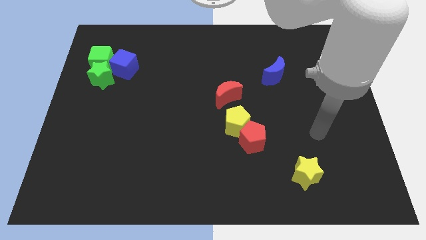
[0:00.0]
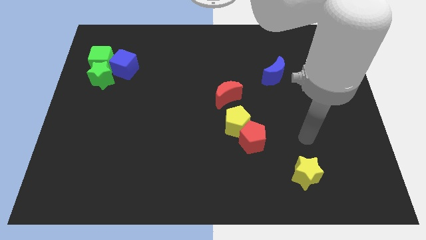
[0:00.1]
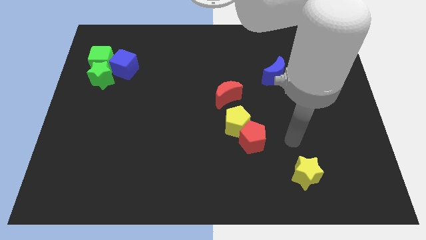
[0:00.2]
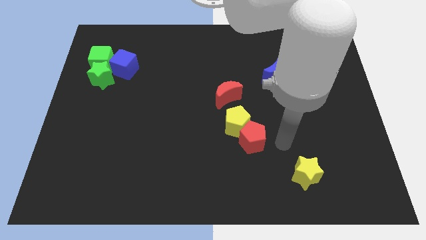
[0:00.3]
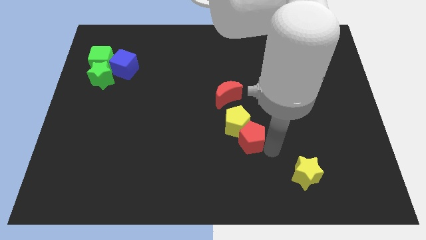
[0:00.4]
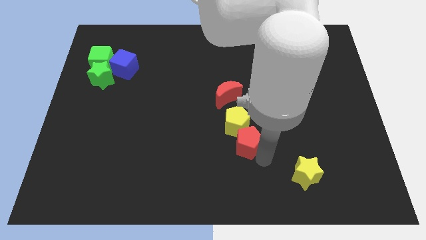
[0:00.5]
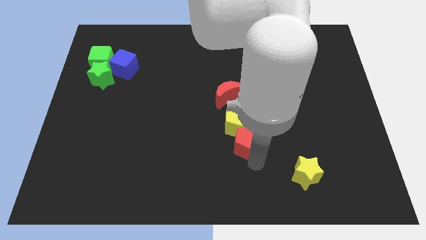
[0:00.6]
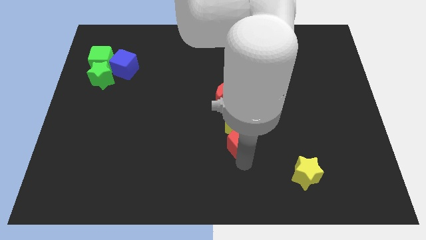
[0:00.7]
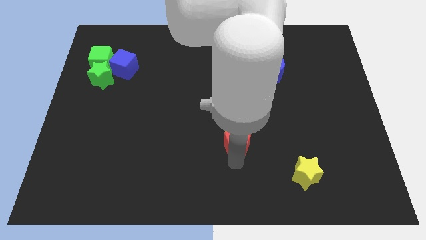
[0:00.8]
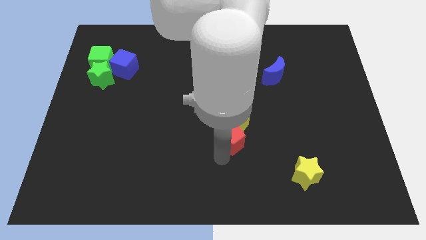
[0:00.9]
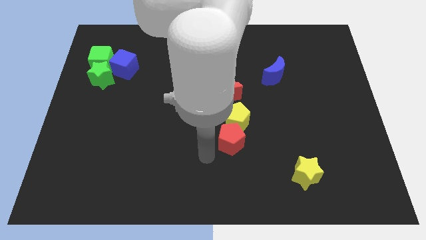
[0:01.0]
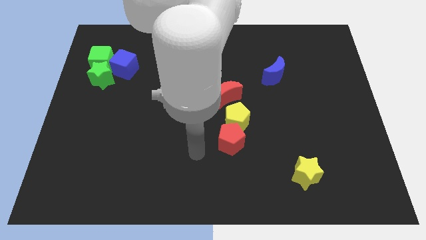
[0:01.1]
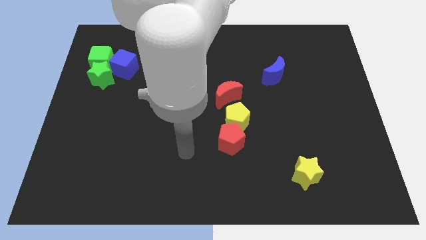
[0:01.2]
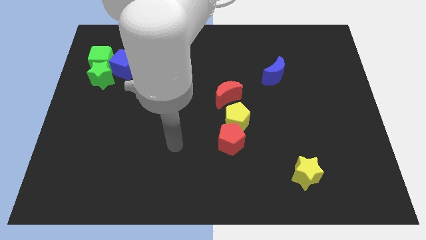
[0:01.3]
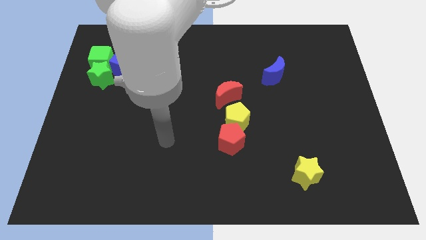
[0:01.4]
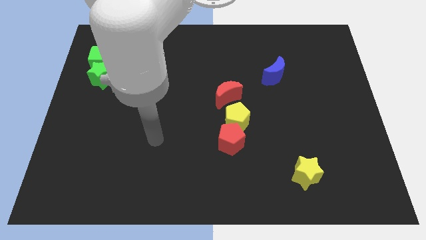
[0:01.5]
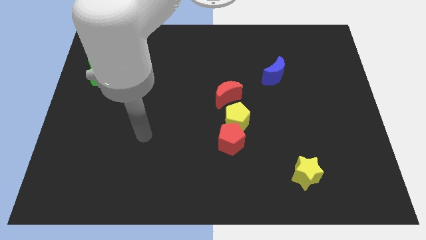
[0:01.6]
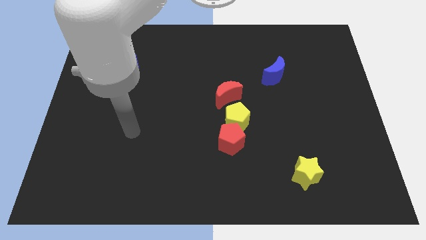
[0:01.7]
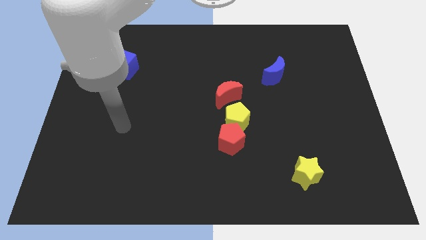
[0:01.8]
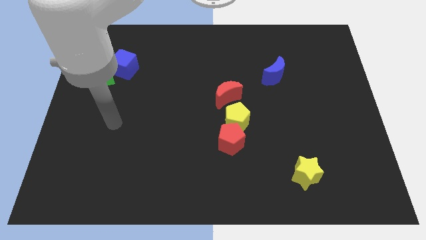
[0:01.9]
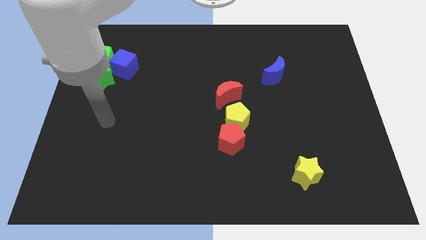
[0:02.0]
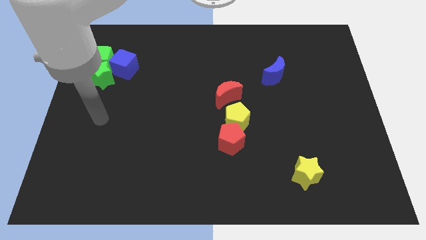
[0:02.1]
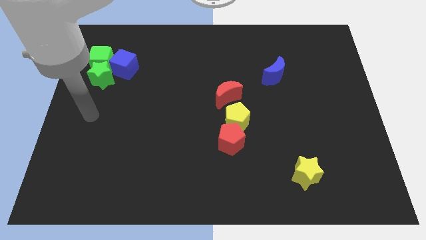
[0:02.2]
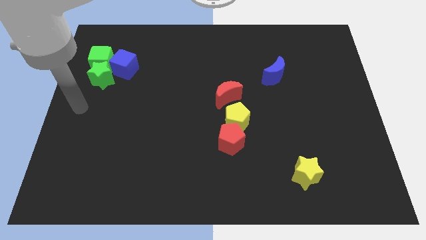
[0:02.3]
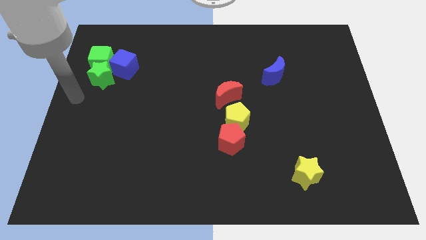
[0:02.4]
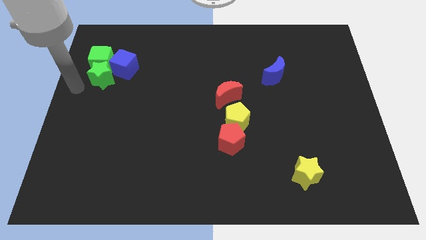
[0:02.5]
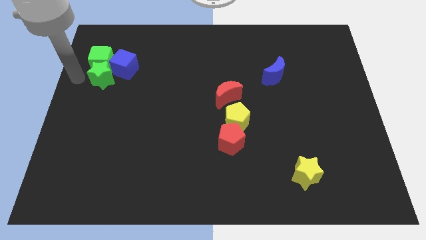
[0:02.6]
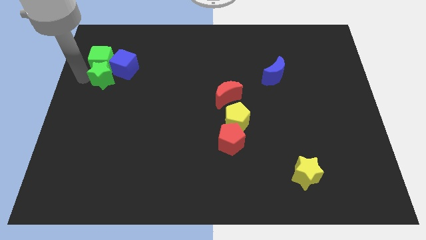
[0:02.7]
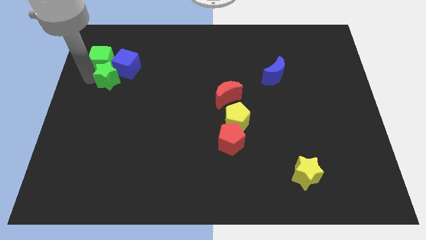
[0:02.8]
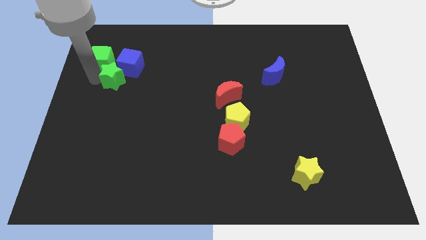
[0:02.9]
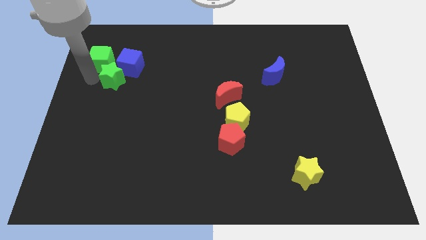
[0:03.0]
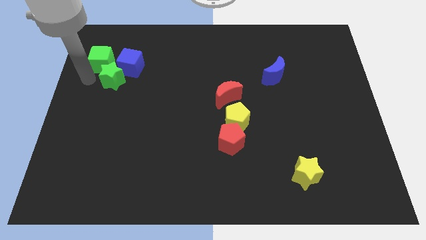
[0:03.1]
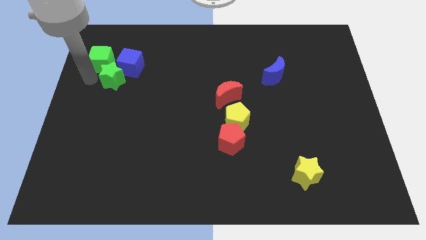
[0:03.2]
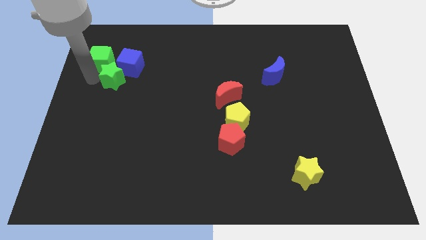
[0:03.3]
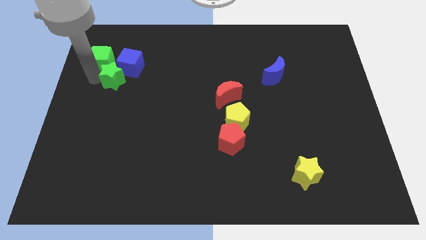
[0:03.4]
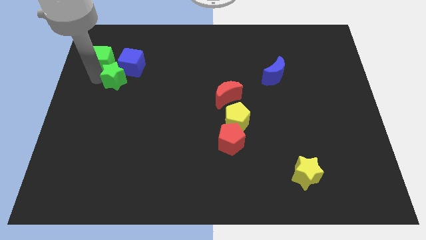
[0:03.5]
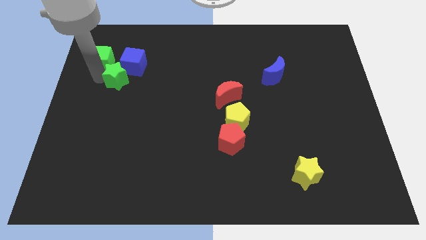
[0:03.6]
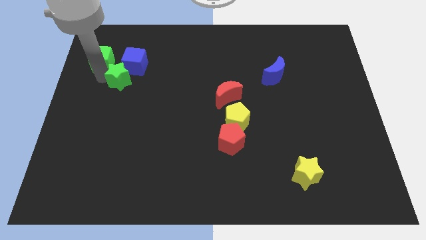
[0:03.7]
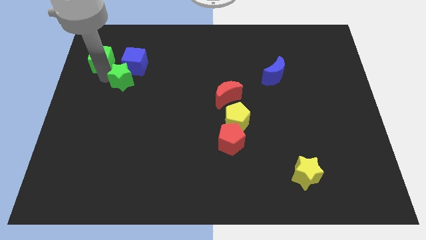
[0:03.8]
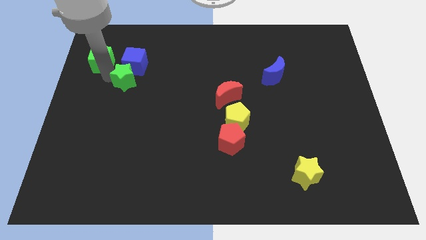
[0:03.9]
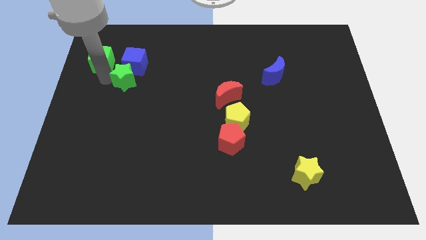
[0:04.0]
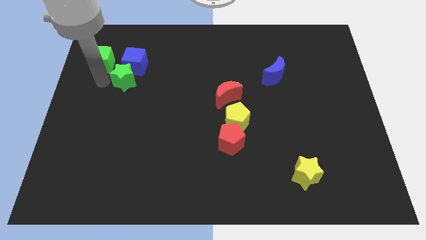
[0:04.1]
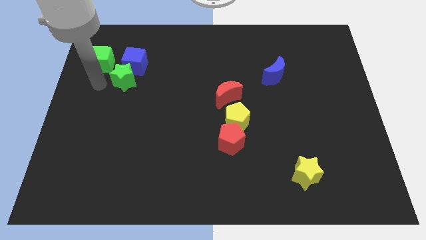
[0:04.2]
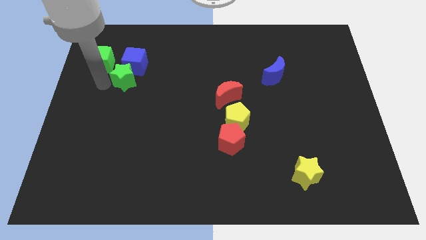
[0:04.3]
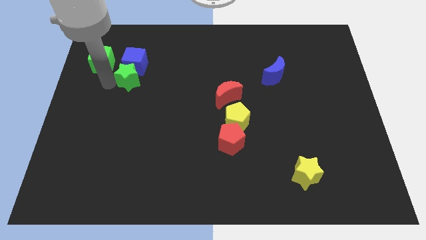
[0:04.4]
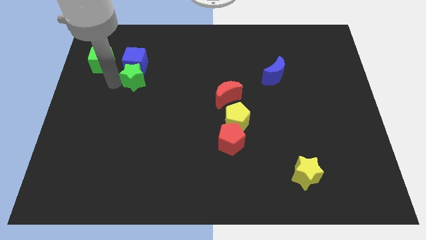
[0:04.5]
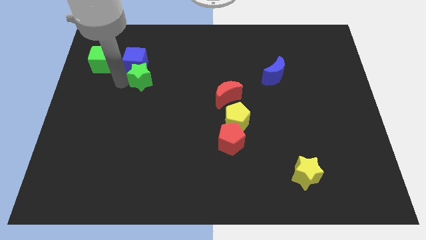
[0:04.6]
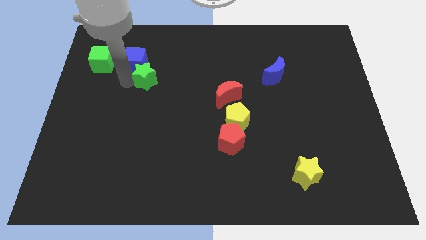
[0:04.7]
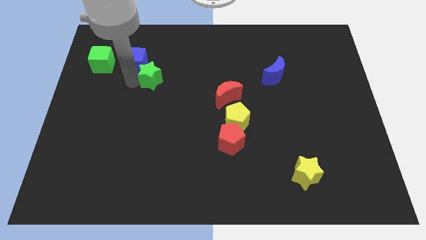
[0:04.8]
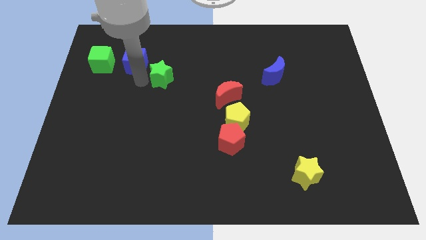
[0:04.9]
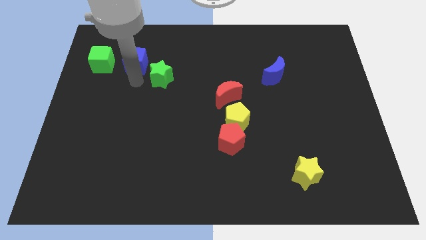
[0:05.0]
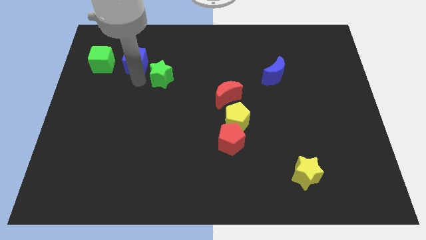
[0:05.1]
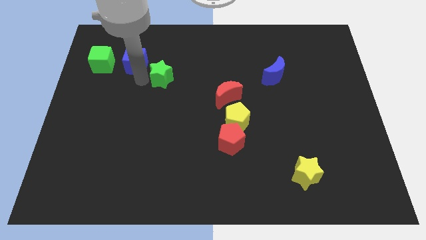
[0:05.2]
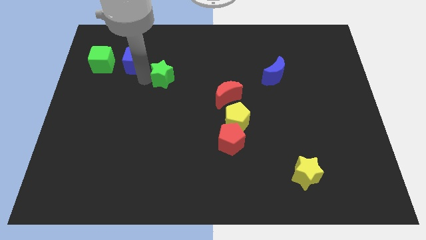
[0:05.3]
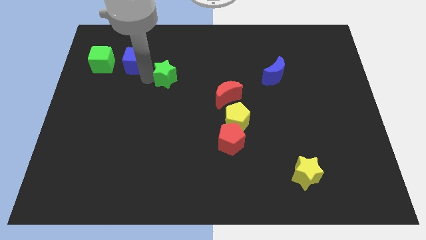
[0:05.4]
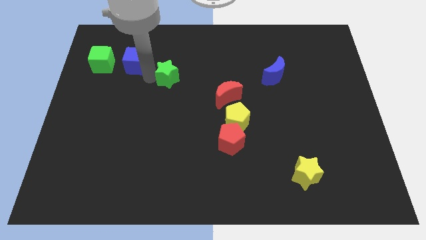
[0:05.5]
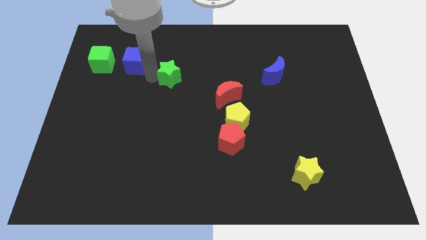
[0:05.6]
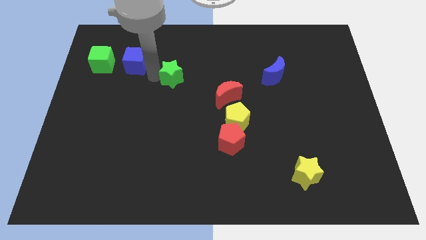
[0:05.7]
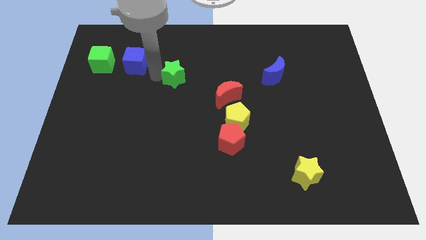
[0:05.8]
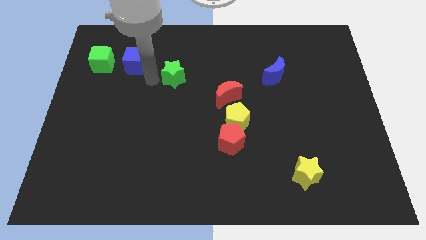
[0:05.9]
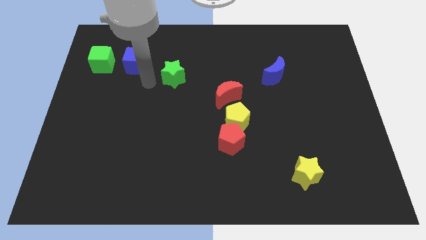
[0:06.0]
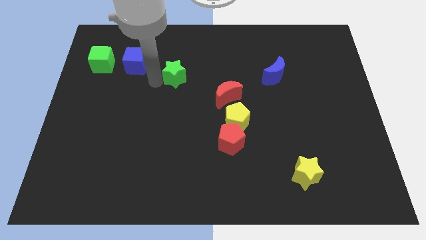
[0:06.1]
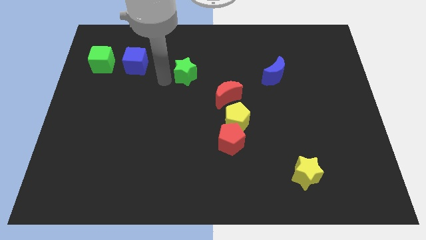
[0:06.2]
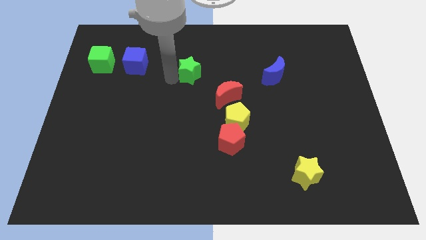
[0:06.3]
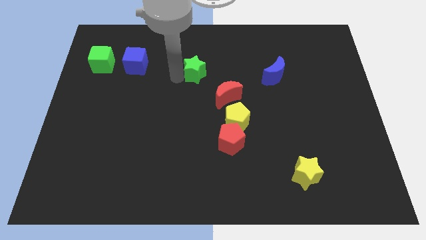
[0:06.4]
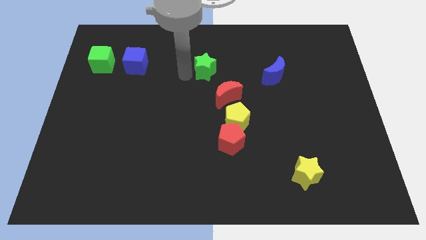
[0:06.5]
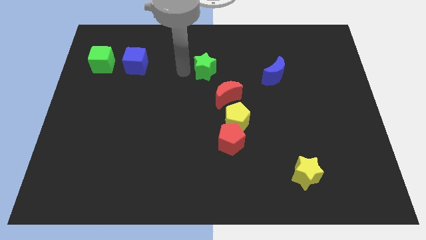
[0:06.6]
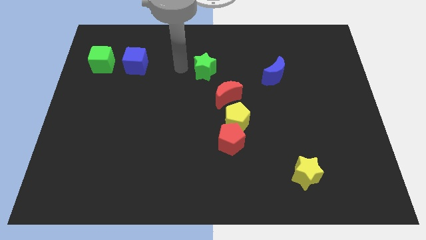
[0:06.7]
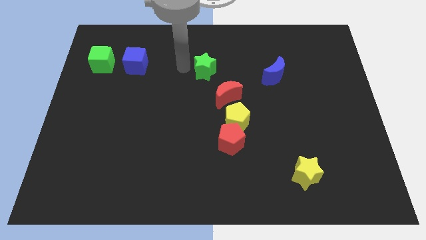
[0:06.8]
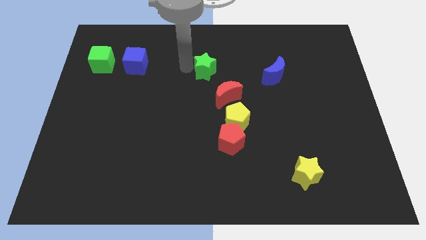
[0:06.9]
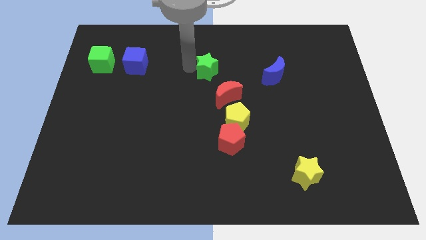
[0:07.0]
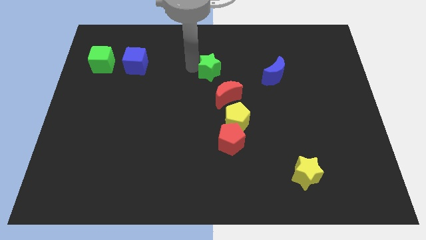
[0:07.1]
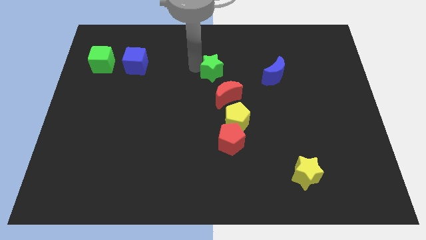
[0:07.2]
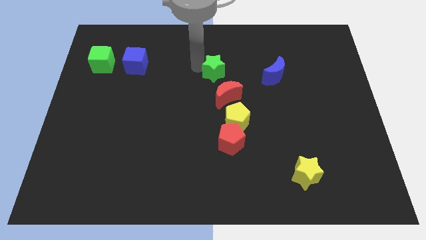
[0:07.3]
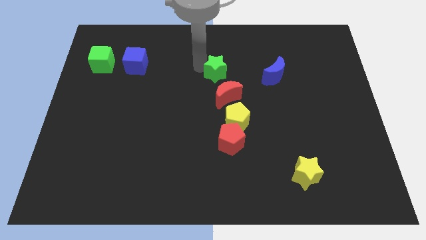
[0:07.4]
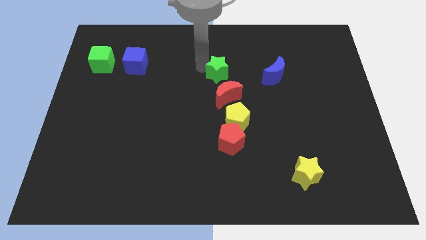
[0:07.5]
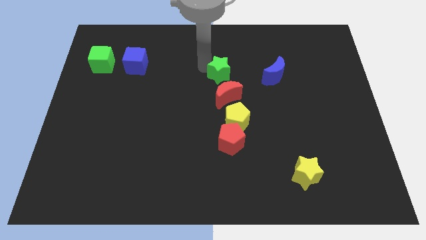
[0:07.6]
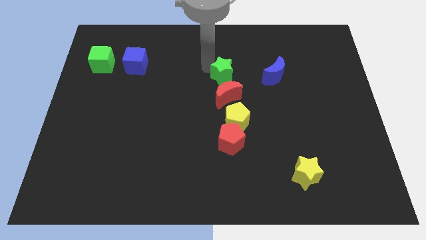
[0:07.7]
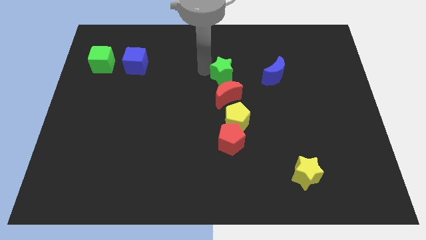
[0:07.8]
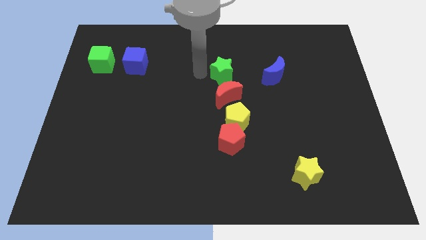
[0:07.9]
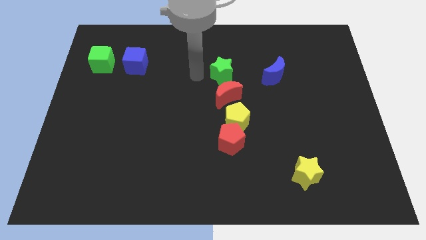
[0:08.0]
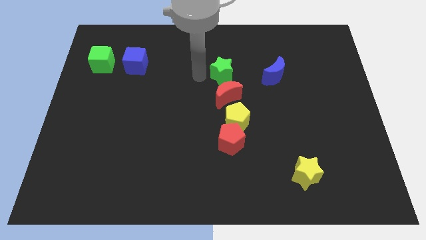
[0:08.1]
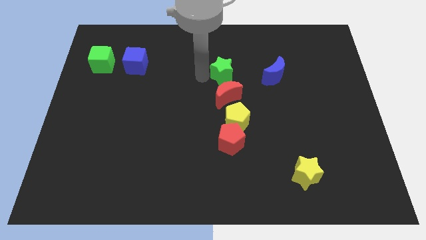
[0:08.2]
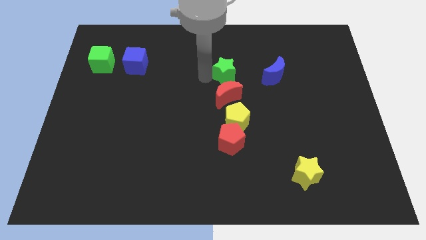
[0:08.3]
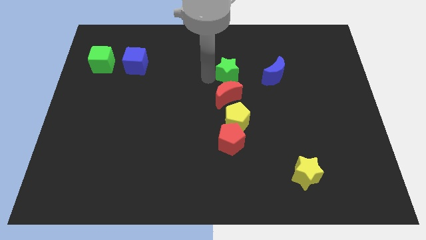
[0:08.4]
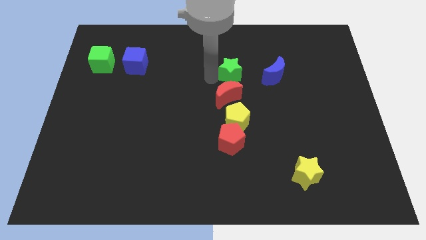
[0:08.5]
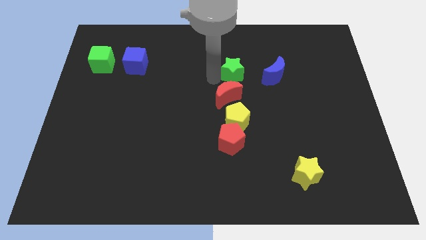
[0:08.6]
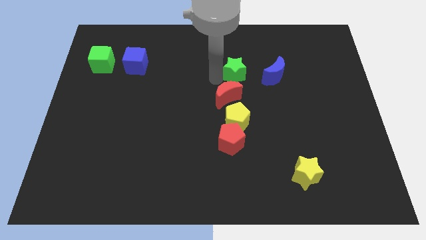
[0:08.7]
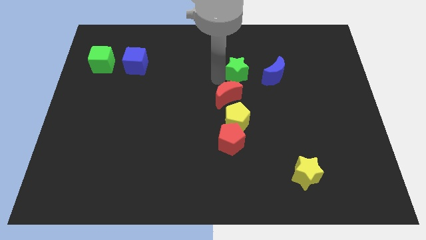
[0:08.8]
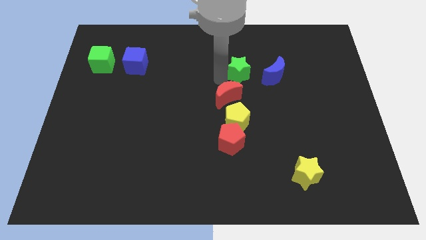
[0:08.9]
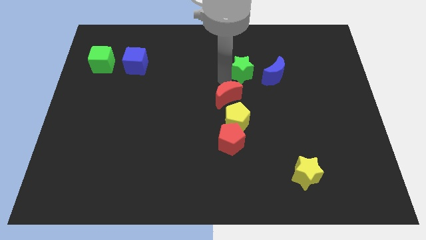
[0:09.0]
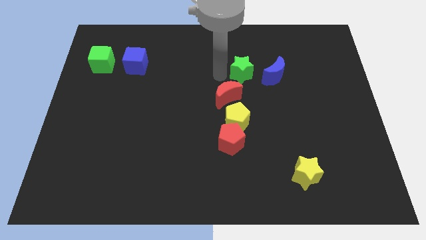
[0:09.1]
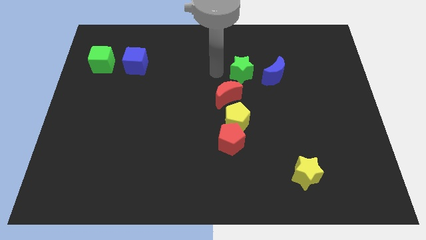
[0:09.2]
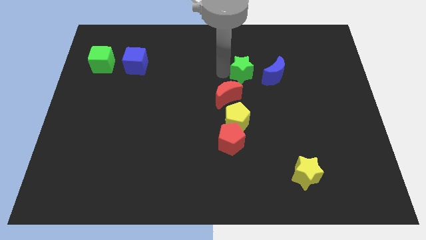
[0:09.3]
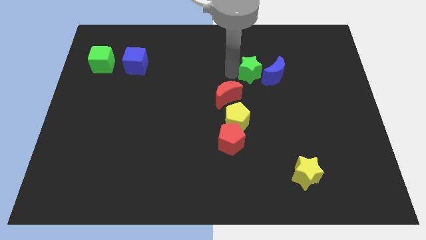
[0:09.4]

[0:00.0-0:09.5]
put the green star towards the blue moon
